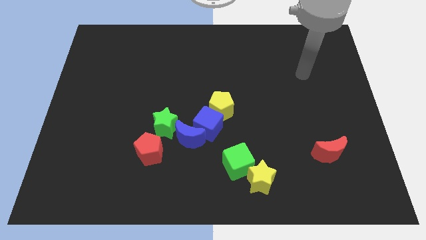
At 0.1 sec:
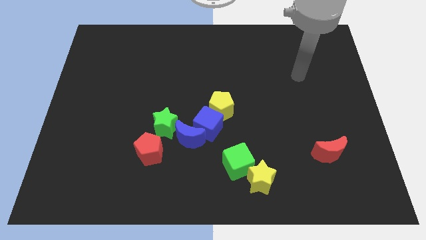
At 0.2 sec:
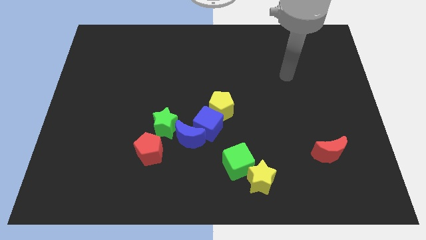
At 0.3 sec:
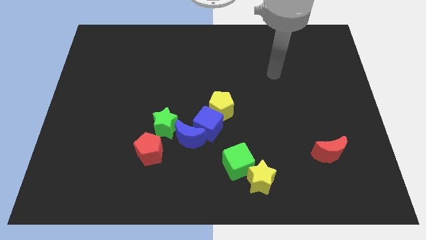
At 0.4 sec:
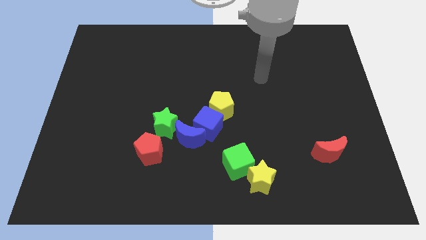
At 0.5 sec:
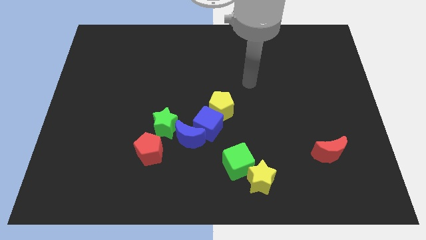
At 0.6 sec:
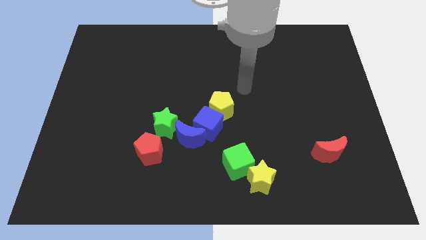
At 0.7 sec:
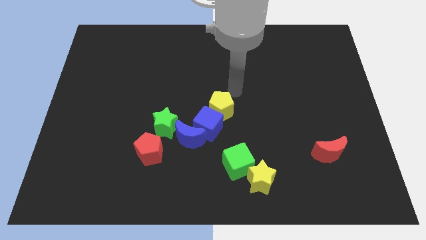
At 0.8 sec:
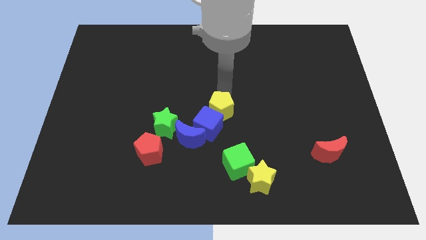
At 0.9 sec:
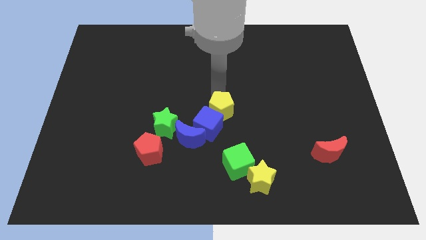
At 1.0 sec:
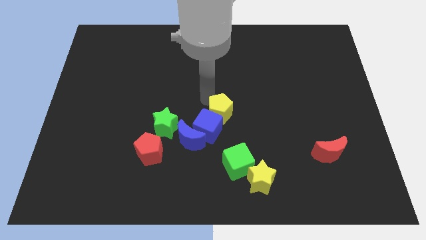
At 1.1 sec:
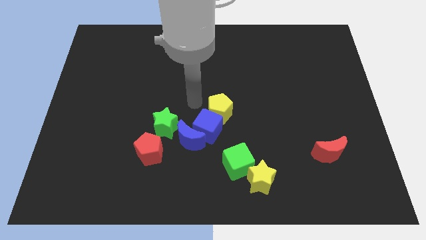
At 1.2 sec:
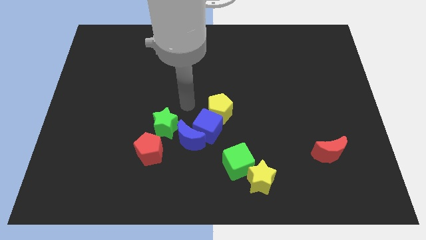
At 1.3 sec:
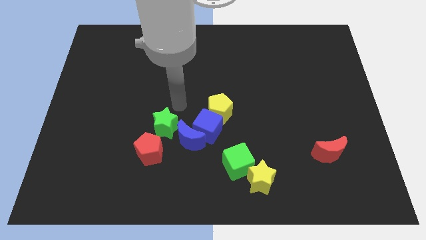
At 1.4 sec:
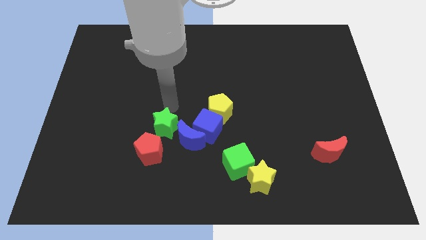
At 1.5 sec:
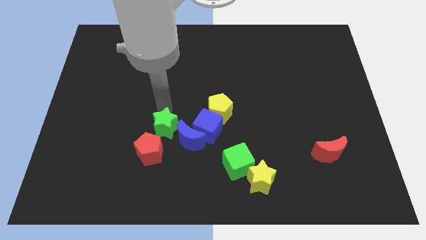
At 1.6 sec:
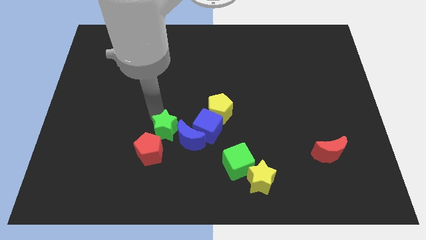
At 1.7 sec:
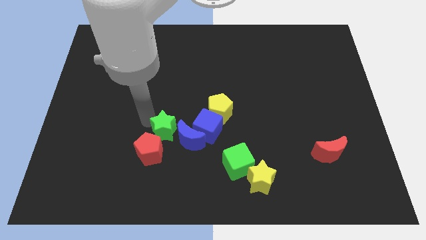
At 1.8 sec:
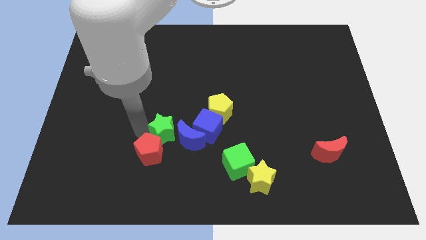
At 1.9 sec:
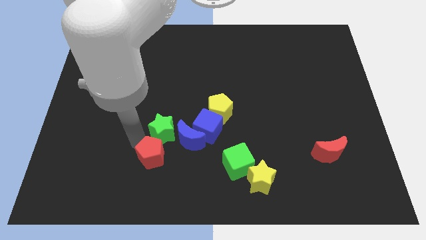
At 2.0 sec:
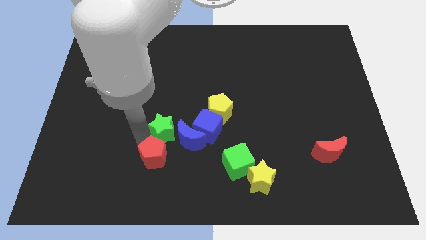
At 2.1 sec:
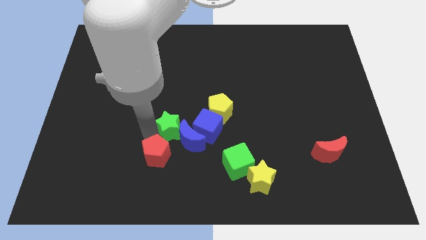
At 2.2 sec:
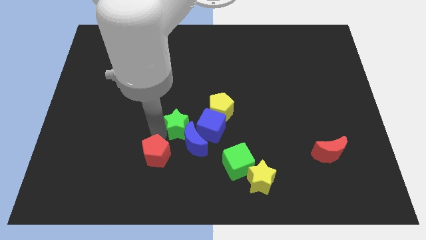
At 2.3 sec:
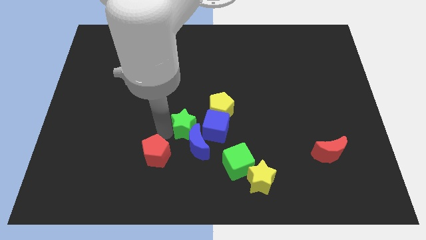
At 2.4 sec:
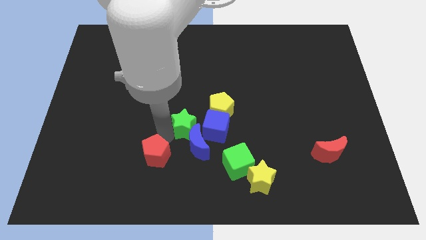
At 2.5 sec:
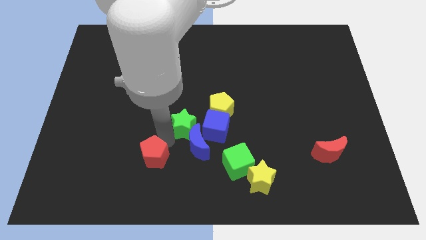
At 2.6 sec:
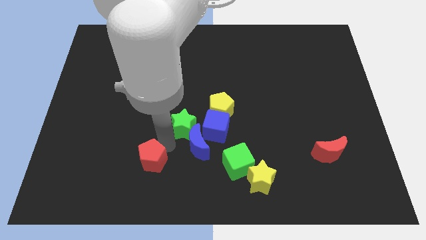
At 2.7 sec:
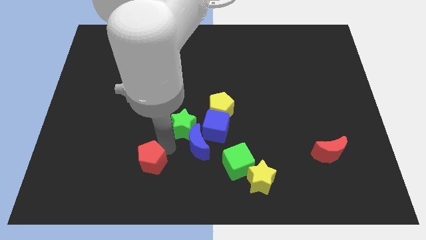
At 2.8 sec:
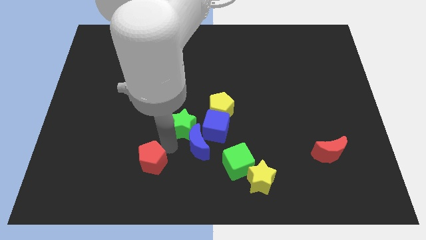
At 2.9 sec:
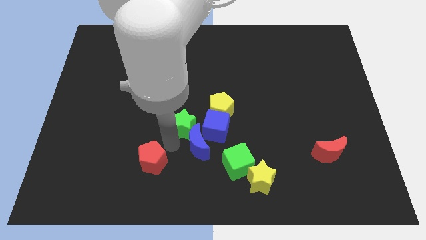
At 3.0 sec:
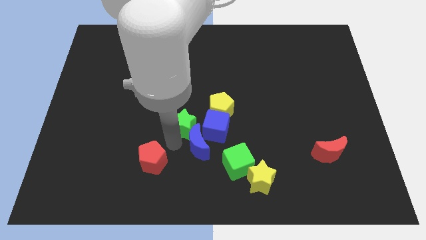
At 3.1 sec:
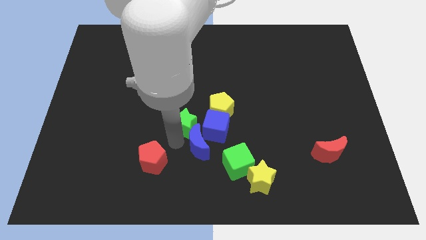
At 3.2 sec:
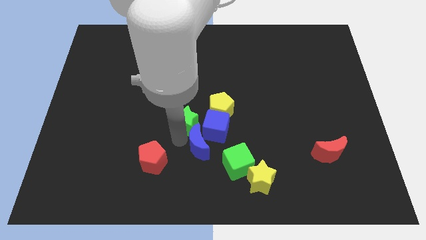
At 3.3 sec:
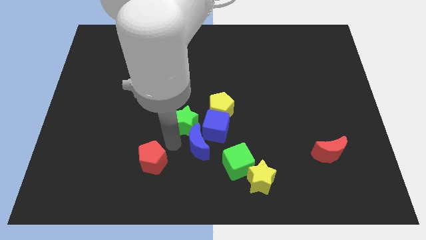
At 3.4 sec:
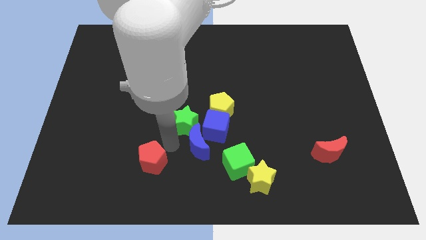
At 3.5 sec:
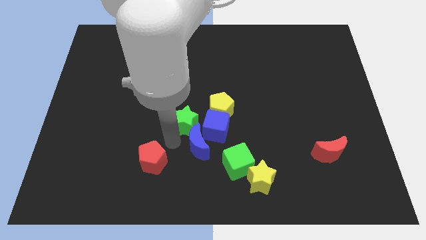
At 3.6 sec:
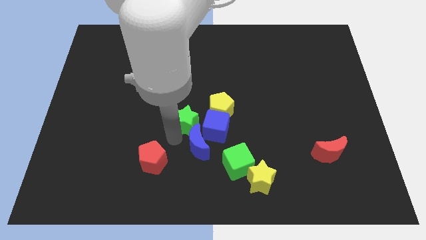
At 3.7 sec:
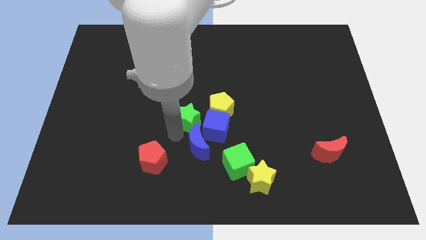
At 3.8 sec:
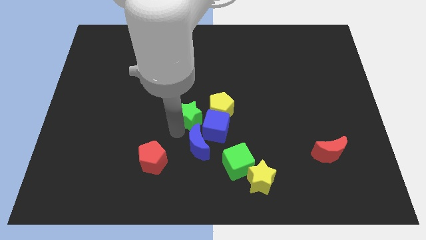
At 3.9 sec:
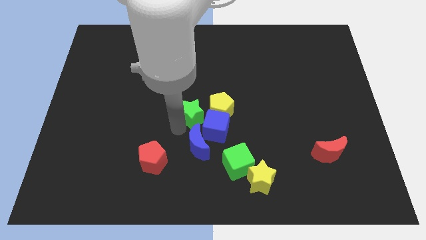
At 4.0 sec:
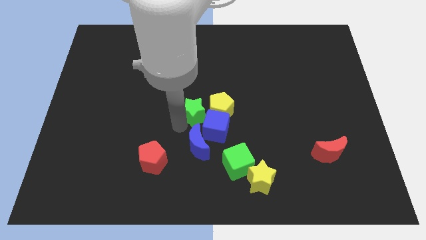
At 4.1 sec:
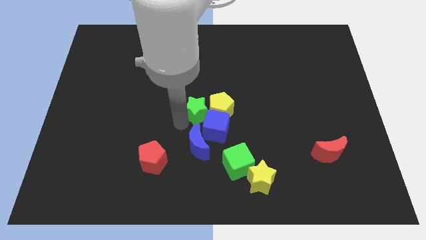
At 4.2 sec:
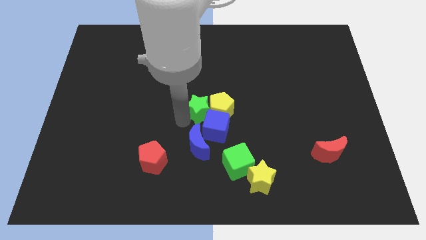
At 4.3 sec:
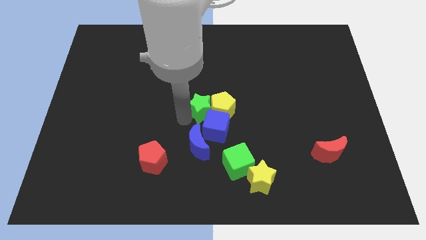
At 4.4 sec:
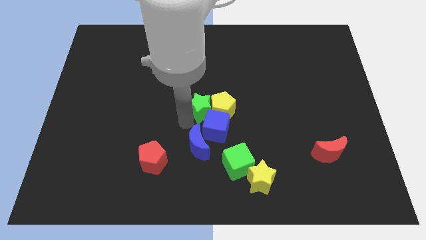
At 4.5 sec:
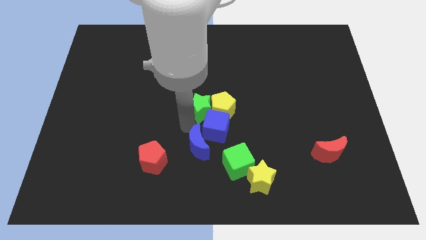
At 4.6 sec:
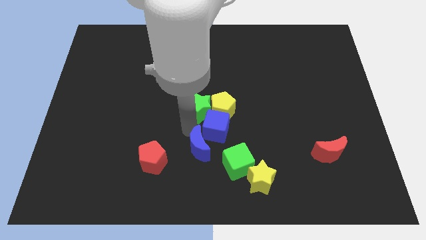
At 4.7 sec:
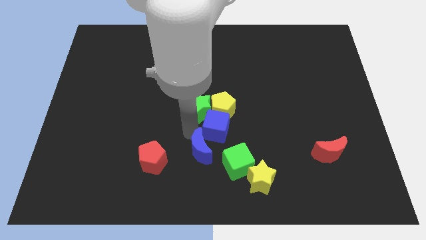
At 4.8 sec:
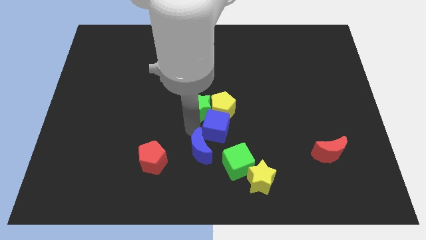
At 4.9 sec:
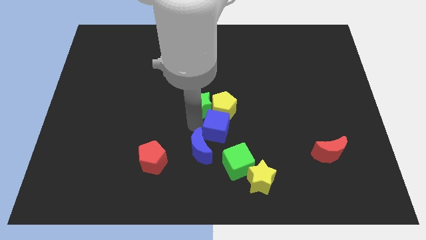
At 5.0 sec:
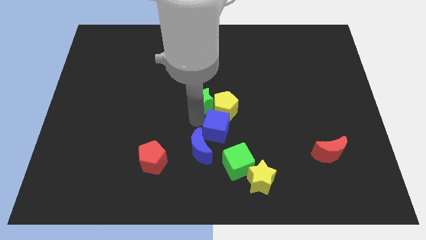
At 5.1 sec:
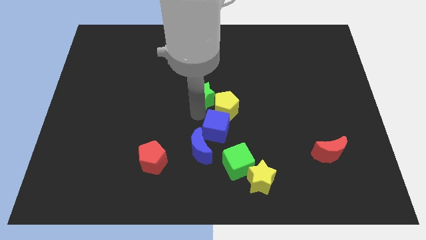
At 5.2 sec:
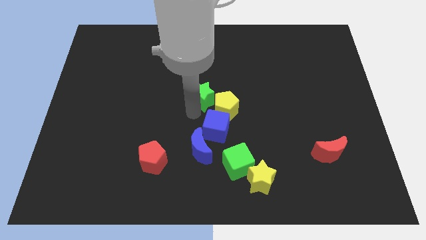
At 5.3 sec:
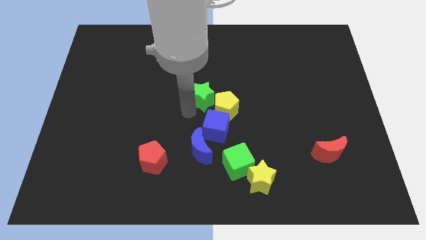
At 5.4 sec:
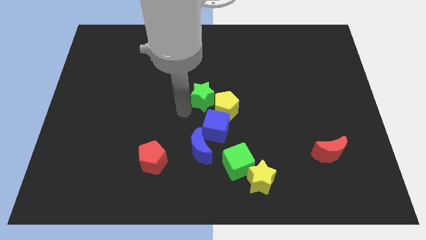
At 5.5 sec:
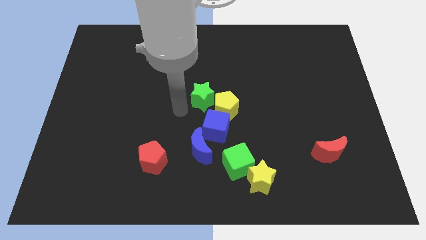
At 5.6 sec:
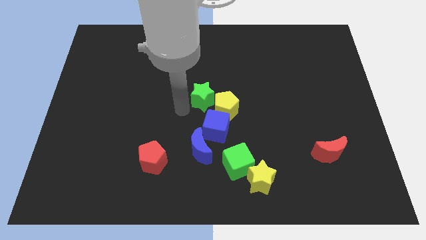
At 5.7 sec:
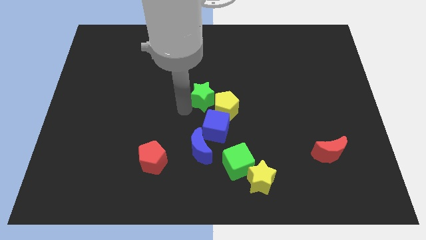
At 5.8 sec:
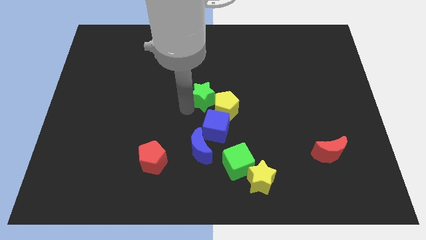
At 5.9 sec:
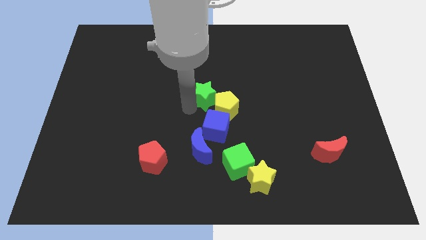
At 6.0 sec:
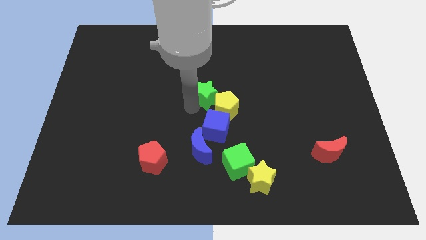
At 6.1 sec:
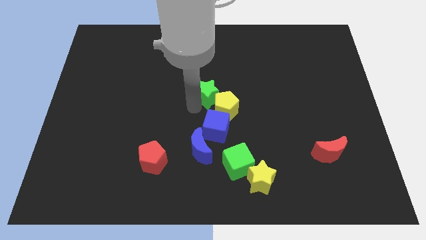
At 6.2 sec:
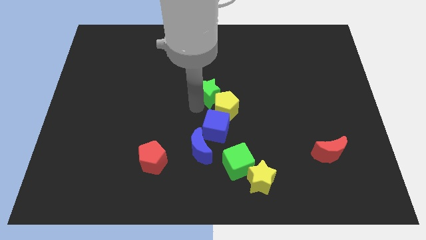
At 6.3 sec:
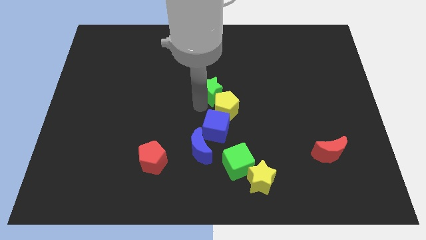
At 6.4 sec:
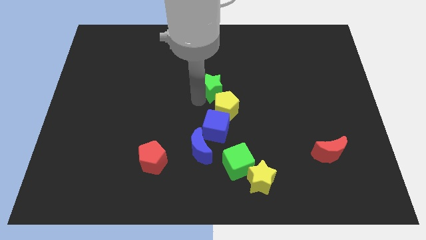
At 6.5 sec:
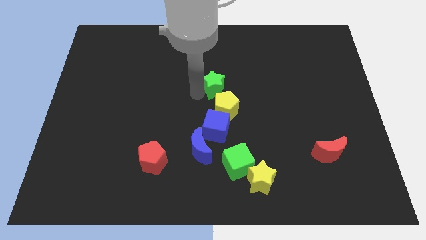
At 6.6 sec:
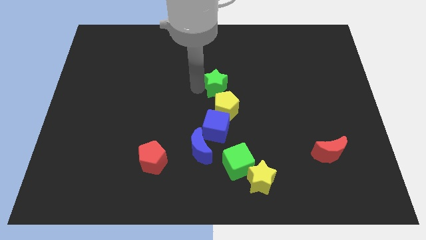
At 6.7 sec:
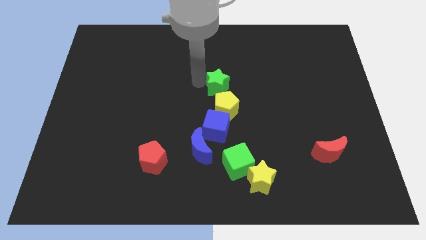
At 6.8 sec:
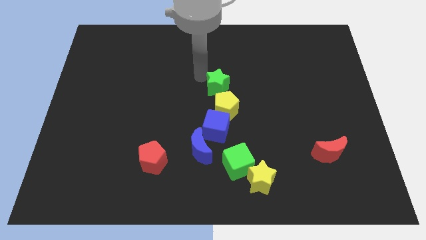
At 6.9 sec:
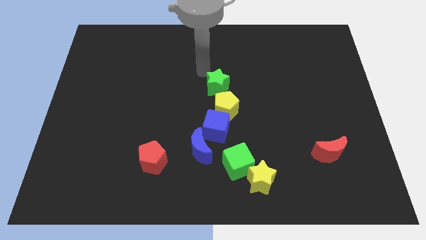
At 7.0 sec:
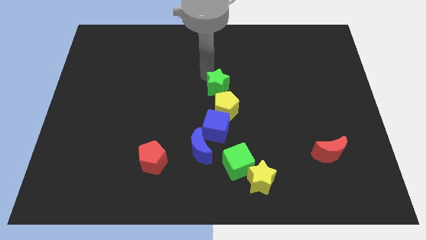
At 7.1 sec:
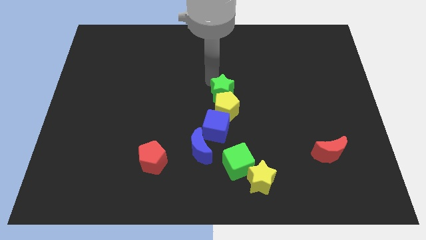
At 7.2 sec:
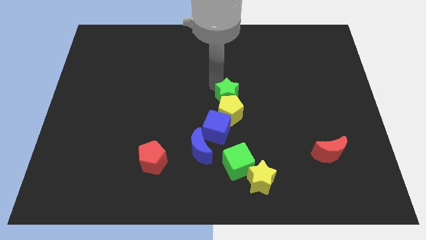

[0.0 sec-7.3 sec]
move the green star to the top right side of the blue cube
